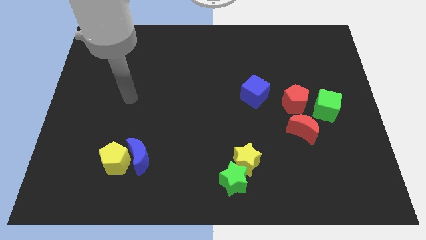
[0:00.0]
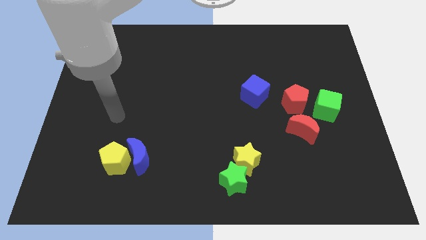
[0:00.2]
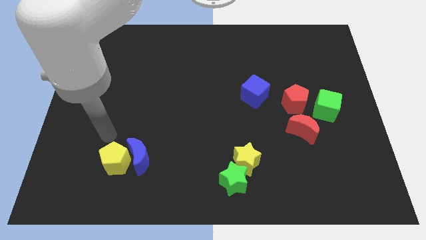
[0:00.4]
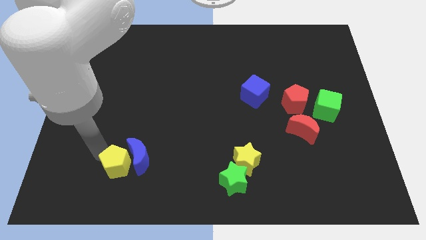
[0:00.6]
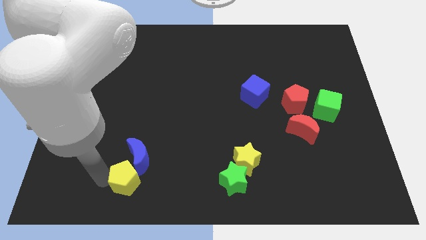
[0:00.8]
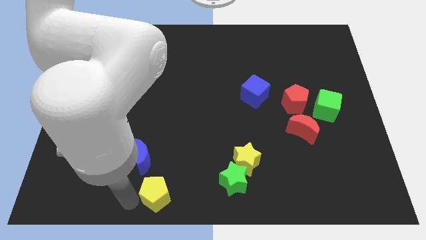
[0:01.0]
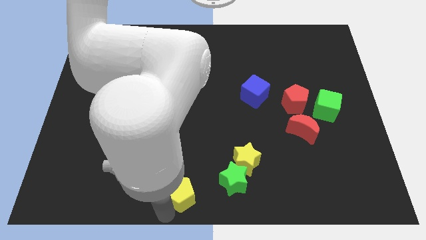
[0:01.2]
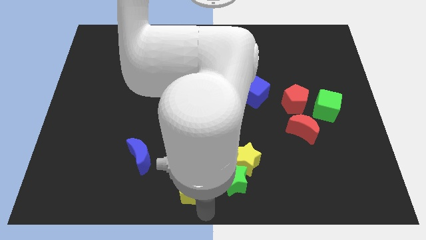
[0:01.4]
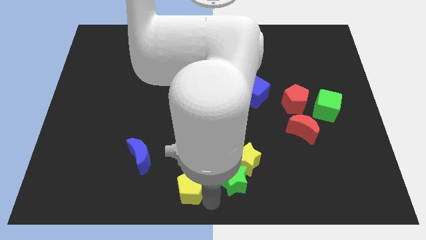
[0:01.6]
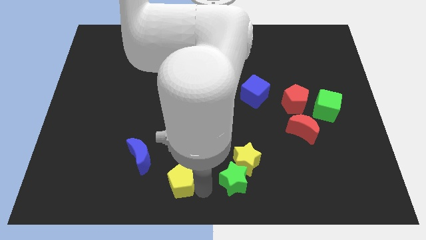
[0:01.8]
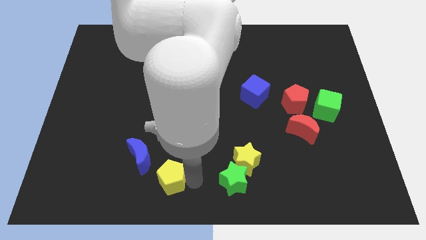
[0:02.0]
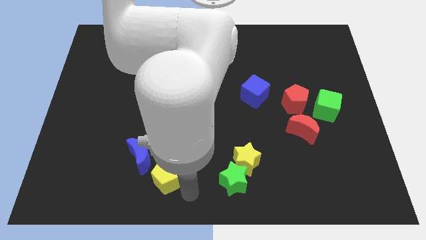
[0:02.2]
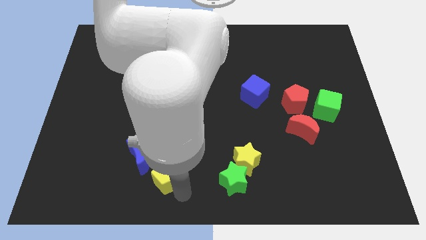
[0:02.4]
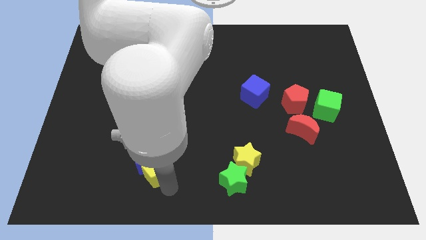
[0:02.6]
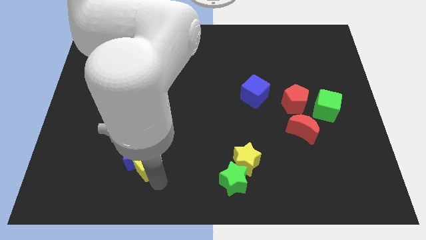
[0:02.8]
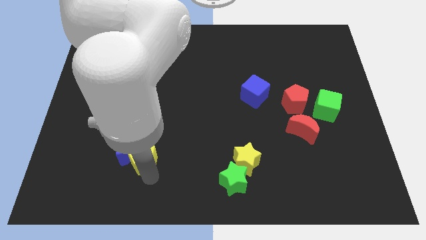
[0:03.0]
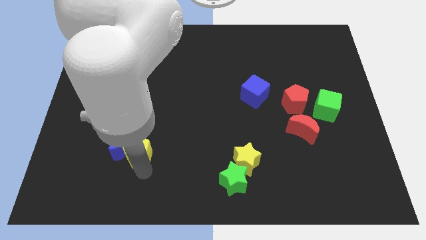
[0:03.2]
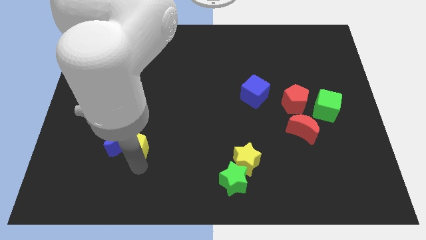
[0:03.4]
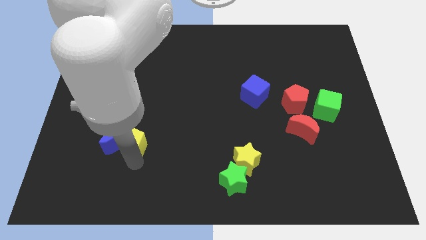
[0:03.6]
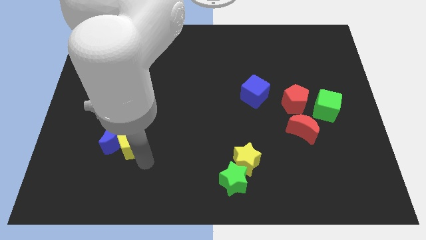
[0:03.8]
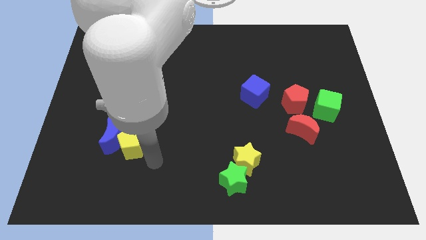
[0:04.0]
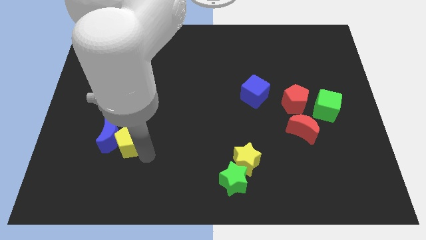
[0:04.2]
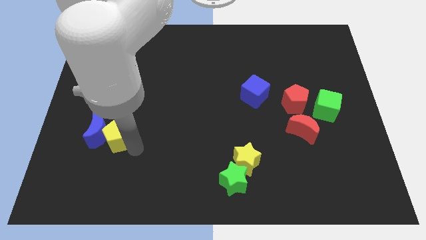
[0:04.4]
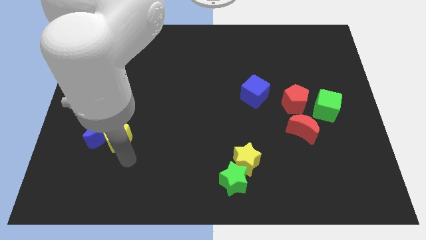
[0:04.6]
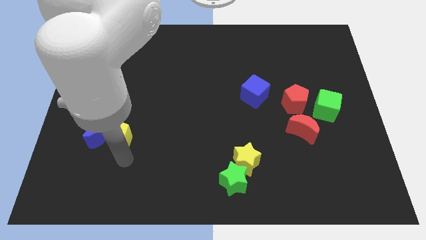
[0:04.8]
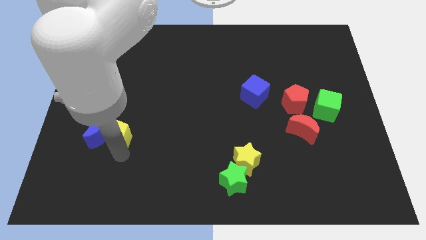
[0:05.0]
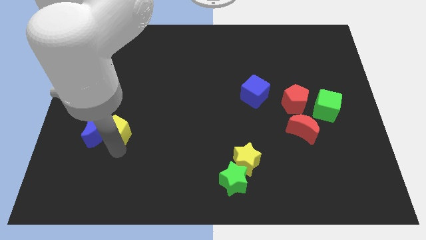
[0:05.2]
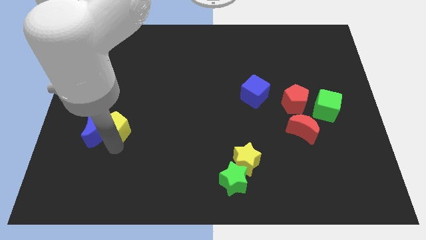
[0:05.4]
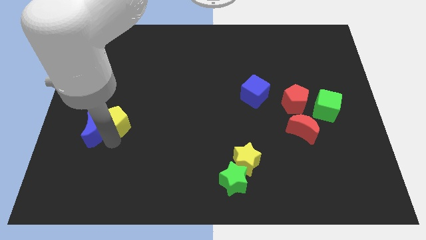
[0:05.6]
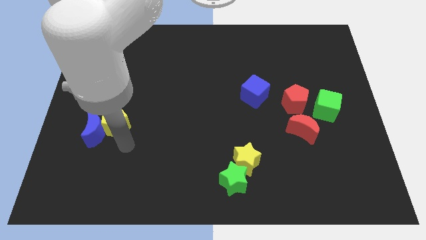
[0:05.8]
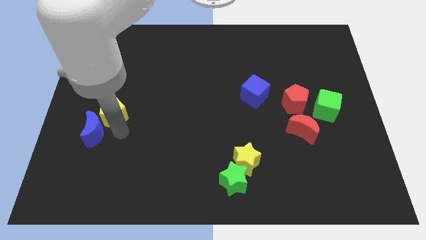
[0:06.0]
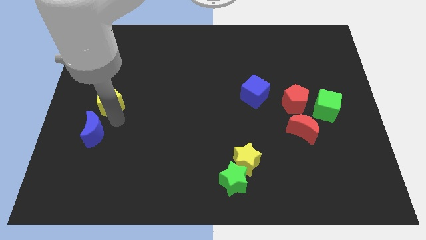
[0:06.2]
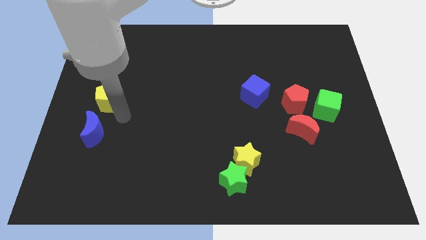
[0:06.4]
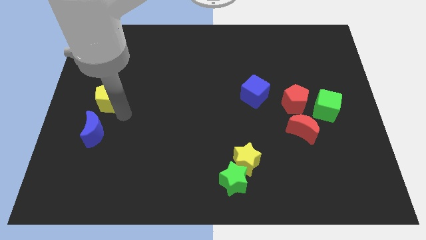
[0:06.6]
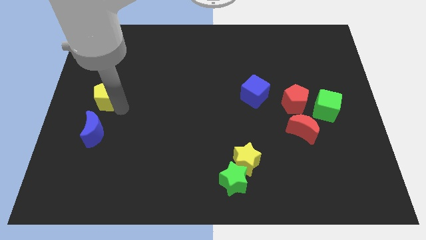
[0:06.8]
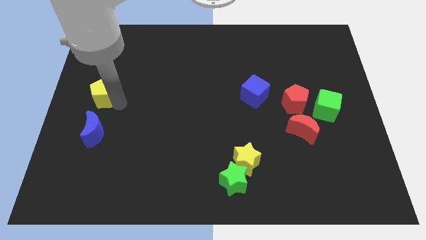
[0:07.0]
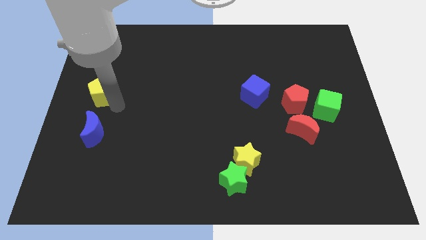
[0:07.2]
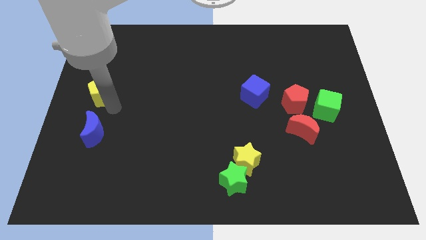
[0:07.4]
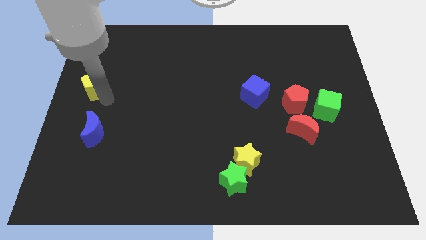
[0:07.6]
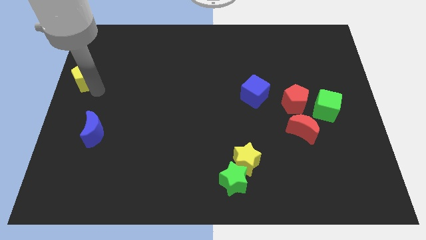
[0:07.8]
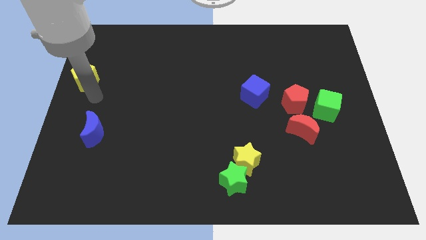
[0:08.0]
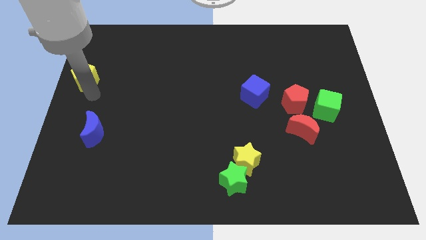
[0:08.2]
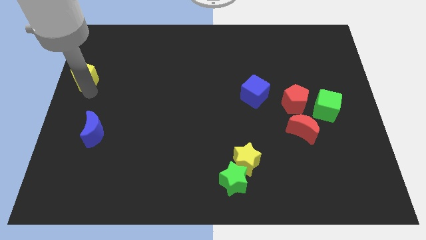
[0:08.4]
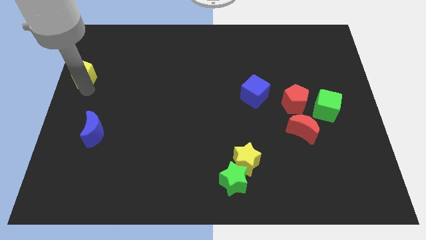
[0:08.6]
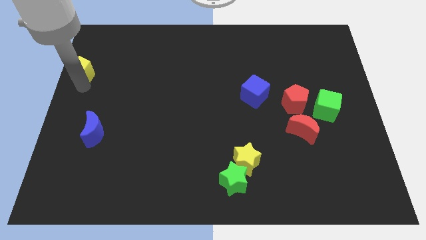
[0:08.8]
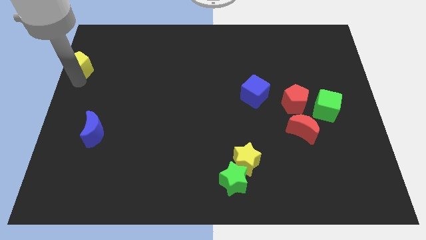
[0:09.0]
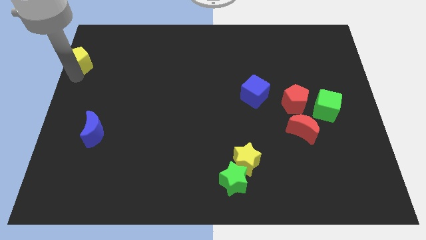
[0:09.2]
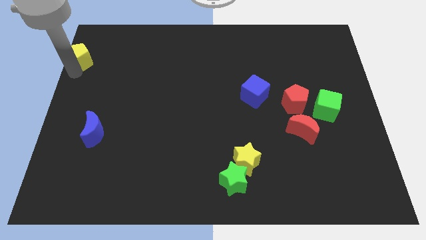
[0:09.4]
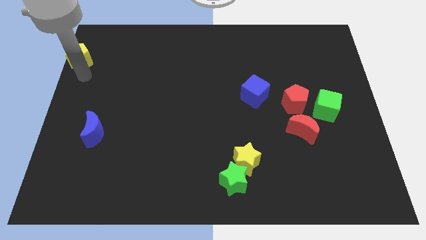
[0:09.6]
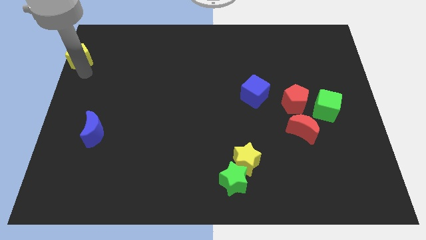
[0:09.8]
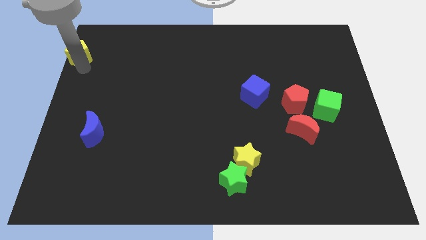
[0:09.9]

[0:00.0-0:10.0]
move the yellow pentagon to the top left

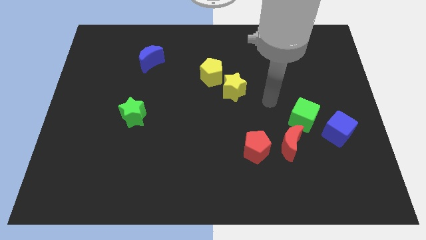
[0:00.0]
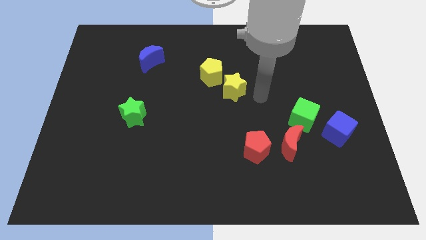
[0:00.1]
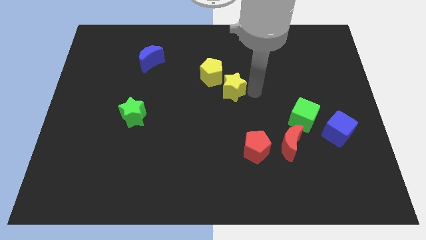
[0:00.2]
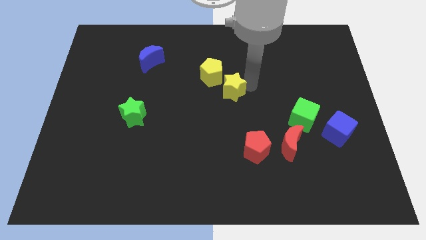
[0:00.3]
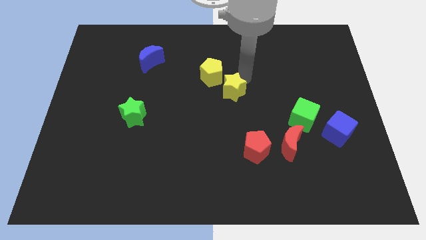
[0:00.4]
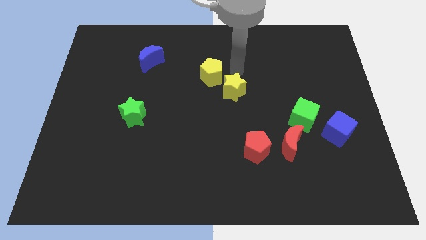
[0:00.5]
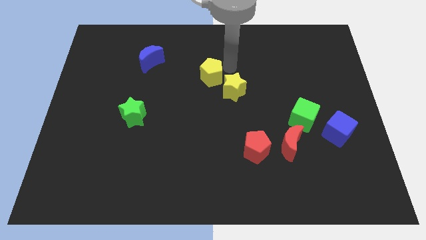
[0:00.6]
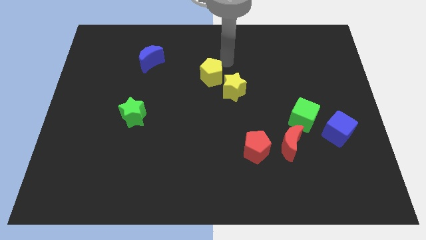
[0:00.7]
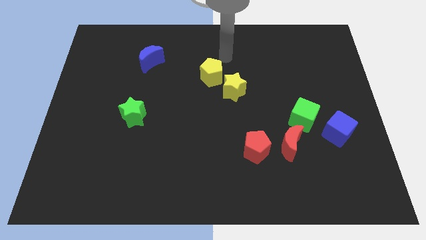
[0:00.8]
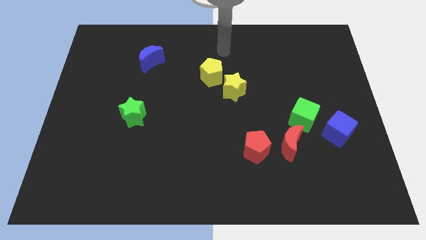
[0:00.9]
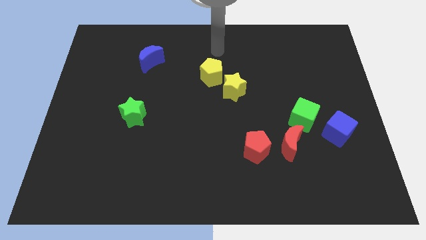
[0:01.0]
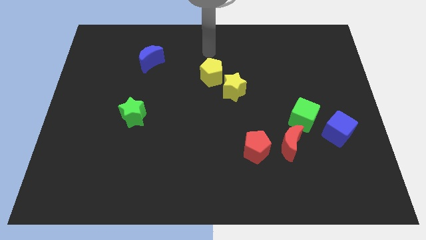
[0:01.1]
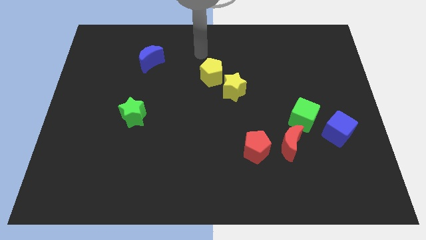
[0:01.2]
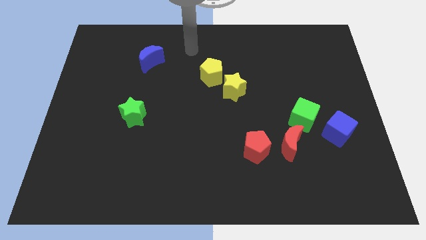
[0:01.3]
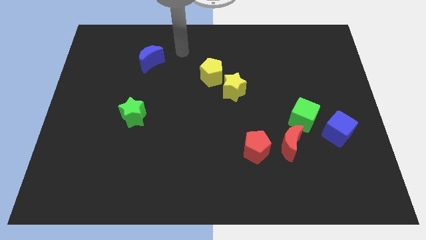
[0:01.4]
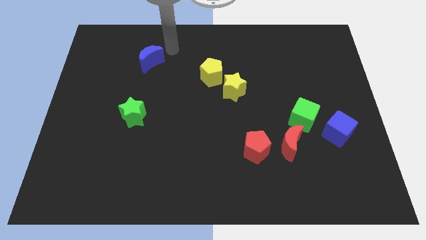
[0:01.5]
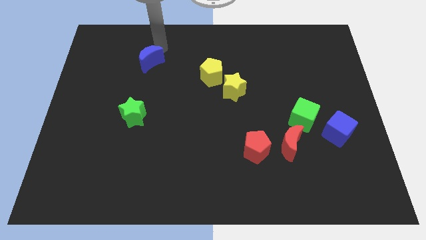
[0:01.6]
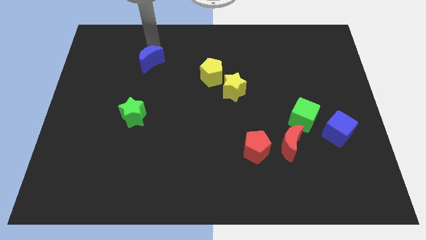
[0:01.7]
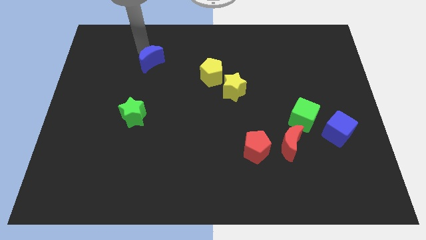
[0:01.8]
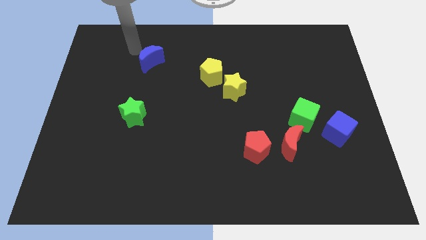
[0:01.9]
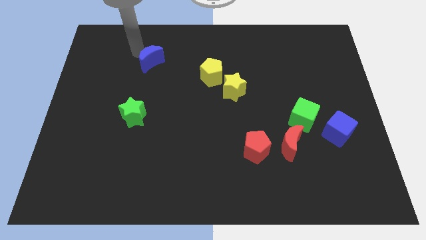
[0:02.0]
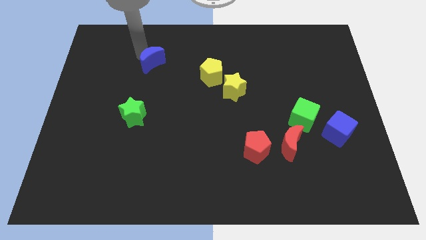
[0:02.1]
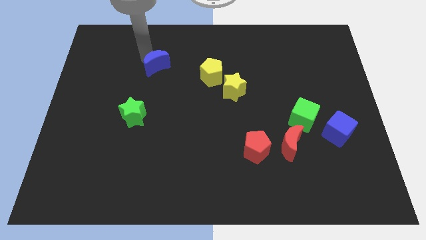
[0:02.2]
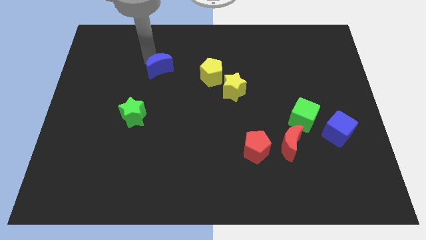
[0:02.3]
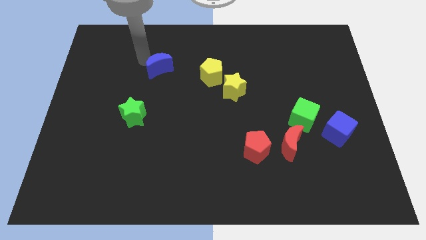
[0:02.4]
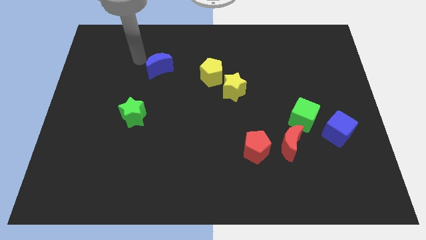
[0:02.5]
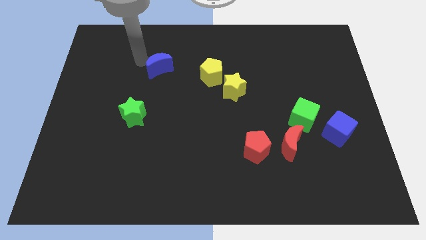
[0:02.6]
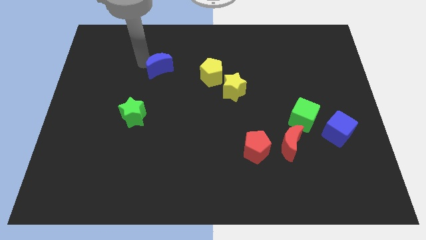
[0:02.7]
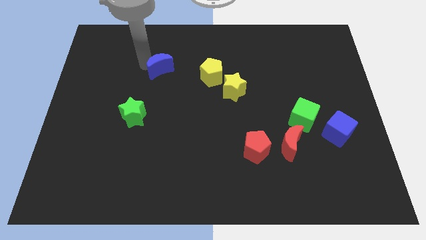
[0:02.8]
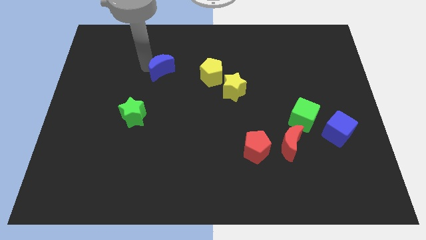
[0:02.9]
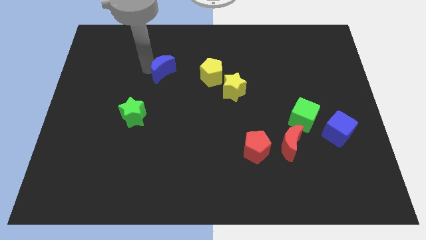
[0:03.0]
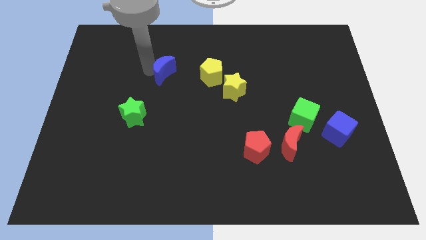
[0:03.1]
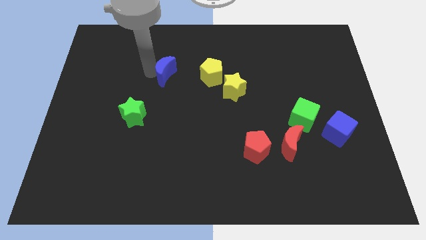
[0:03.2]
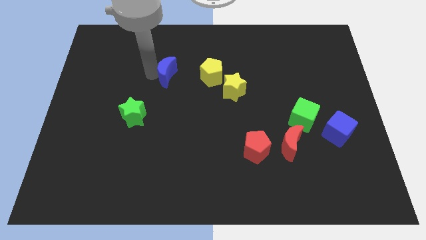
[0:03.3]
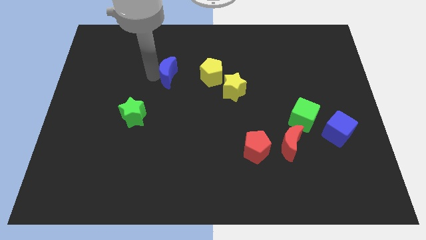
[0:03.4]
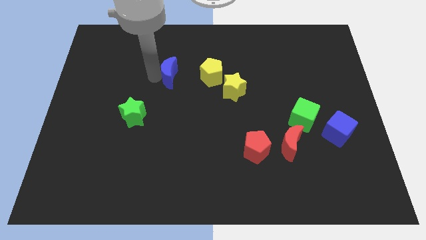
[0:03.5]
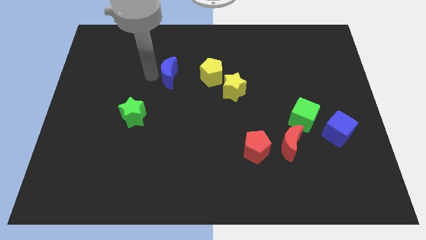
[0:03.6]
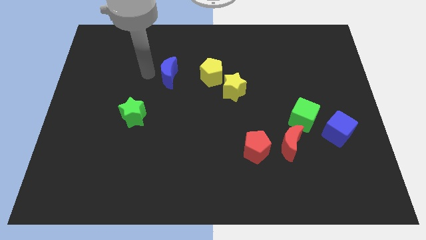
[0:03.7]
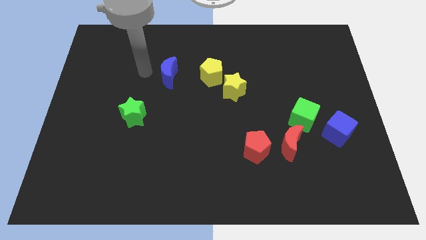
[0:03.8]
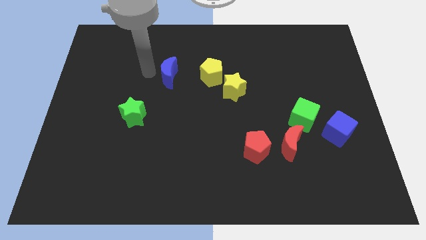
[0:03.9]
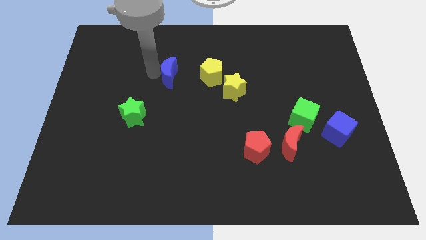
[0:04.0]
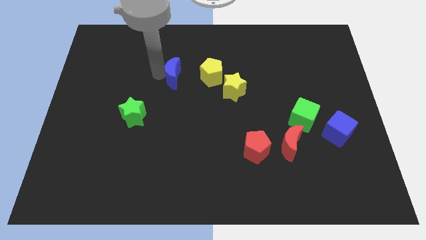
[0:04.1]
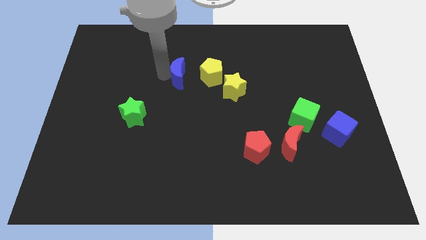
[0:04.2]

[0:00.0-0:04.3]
move the blue moon to the center of the board
